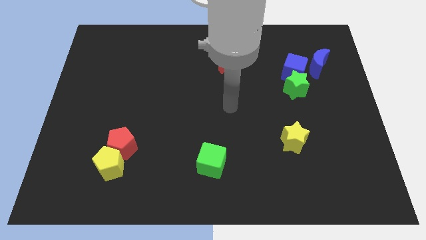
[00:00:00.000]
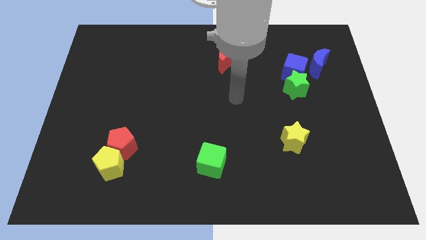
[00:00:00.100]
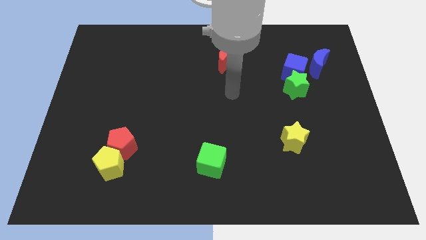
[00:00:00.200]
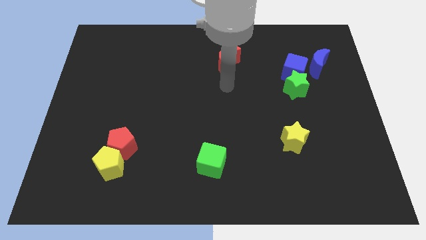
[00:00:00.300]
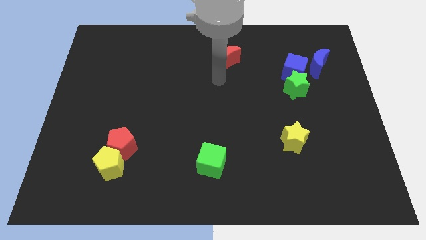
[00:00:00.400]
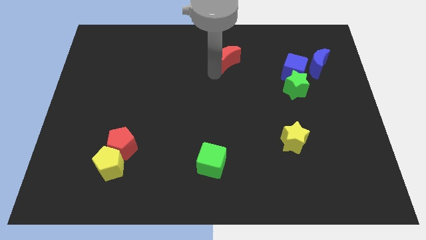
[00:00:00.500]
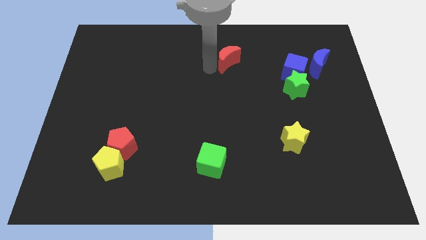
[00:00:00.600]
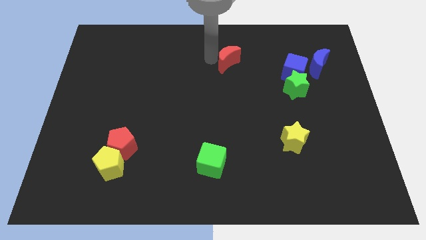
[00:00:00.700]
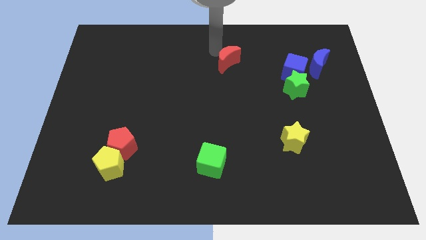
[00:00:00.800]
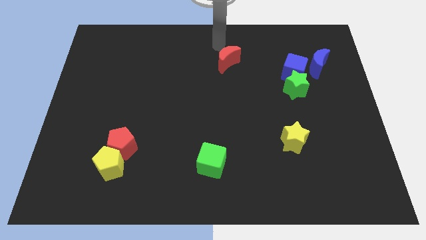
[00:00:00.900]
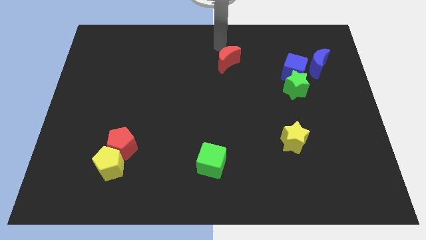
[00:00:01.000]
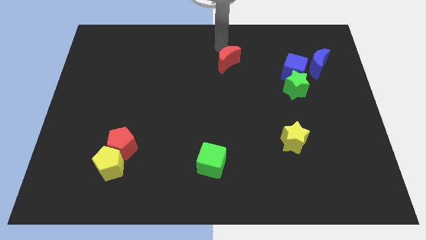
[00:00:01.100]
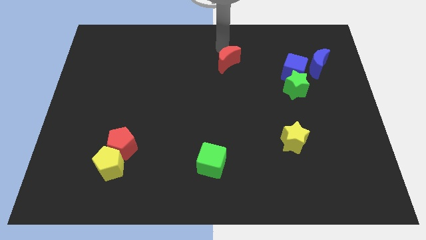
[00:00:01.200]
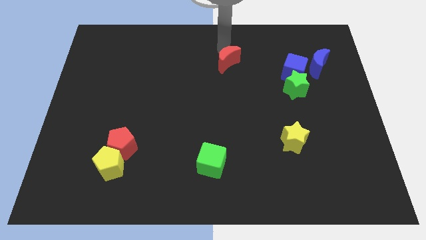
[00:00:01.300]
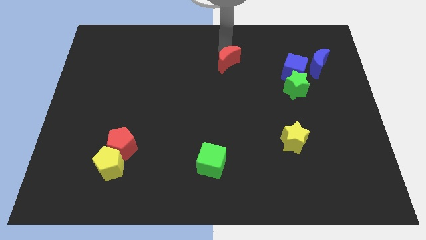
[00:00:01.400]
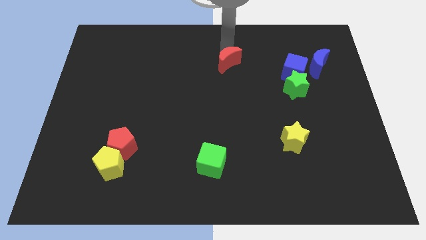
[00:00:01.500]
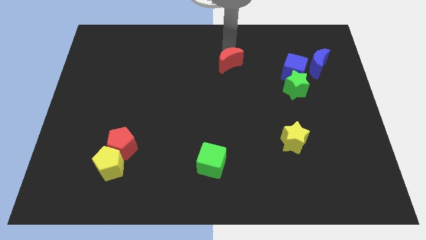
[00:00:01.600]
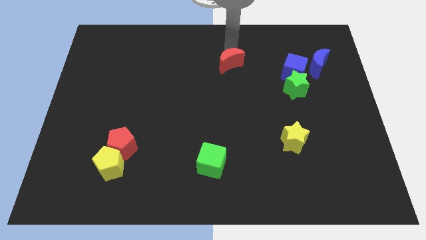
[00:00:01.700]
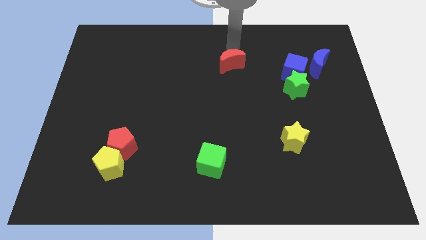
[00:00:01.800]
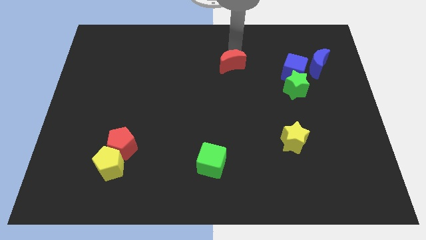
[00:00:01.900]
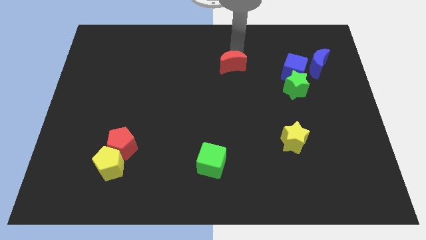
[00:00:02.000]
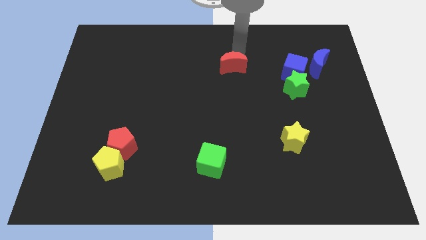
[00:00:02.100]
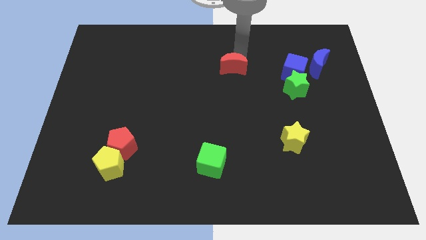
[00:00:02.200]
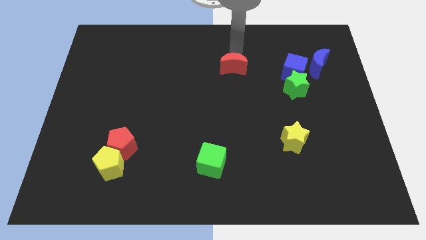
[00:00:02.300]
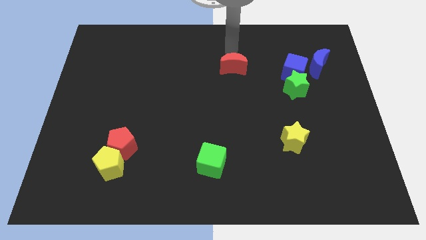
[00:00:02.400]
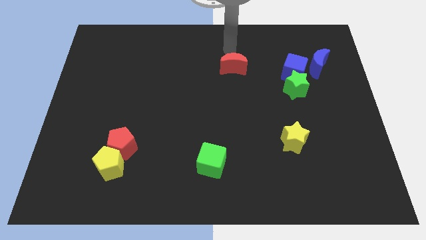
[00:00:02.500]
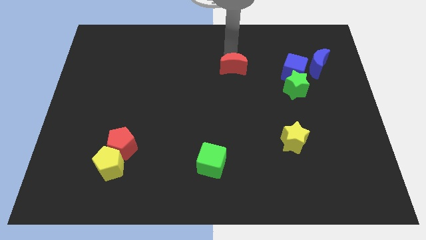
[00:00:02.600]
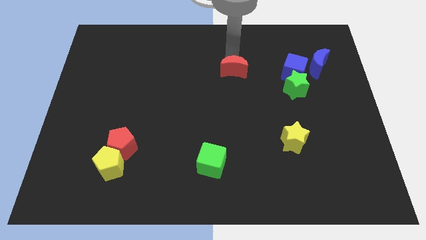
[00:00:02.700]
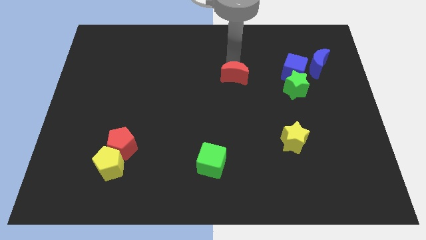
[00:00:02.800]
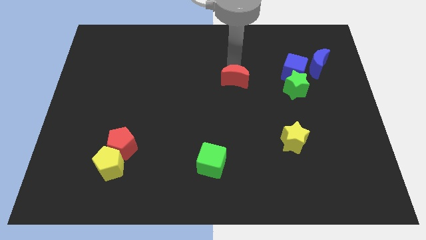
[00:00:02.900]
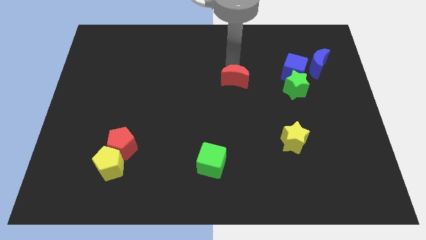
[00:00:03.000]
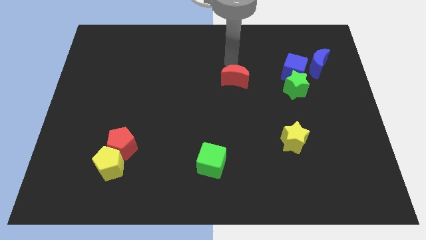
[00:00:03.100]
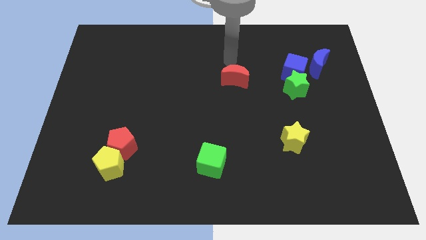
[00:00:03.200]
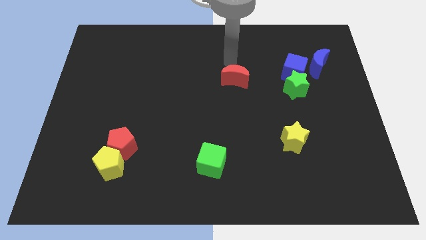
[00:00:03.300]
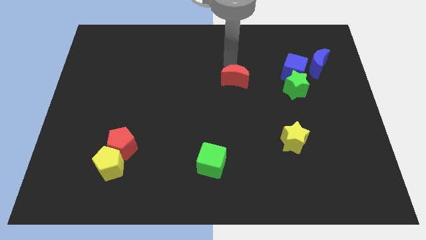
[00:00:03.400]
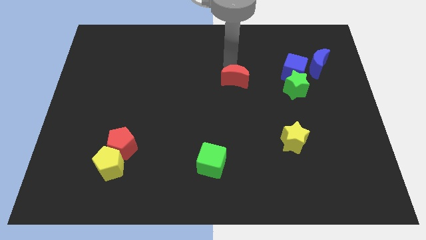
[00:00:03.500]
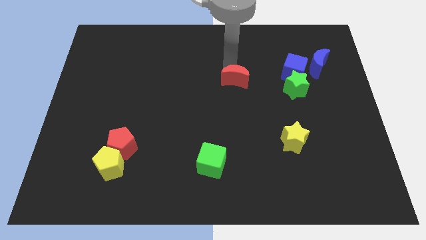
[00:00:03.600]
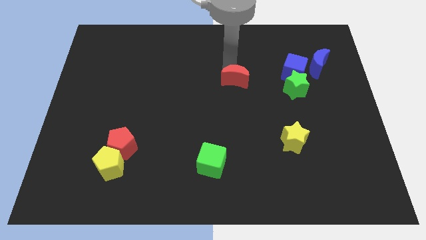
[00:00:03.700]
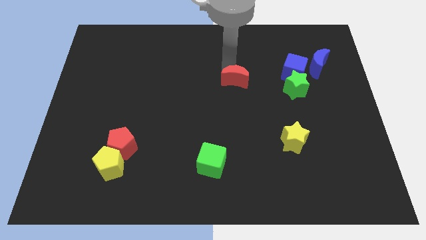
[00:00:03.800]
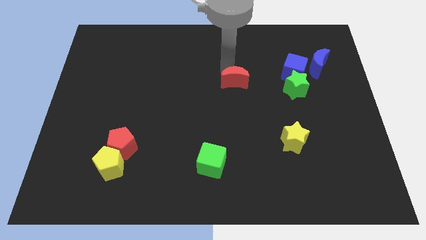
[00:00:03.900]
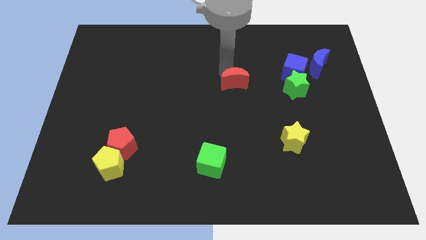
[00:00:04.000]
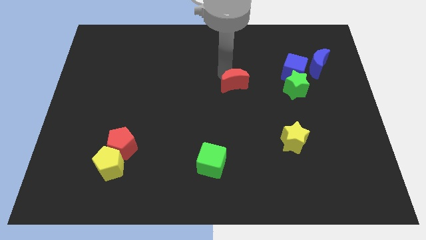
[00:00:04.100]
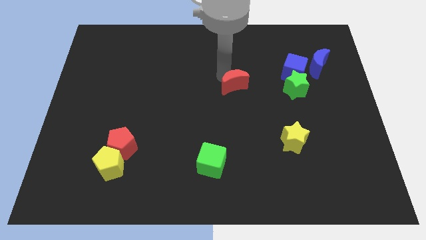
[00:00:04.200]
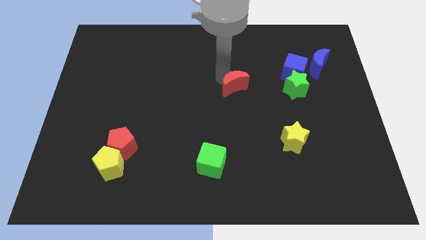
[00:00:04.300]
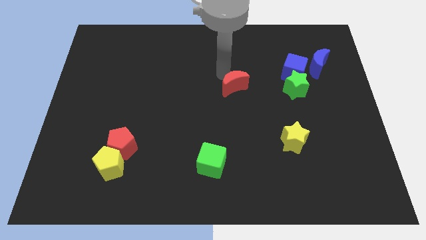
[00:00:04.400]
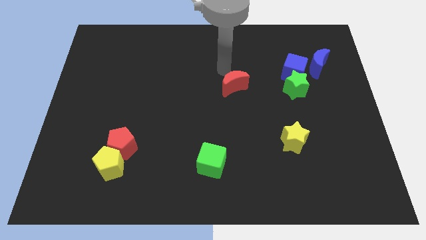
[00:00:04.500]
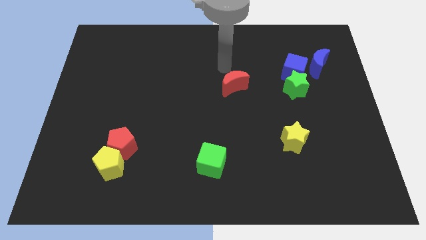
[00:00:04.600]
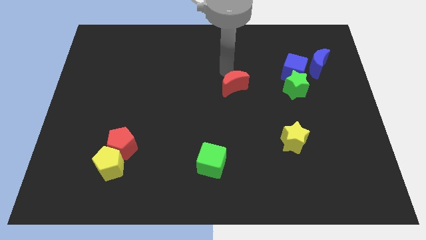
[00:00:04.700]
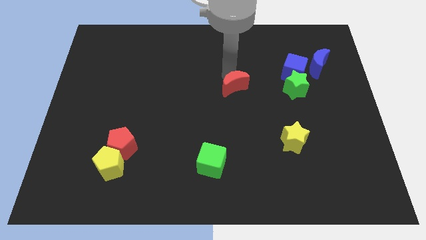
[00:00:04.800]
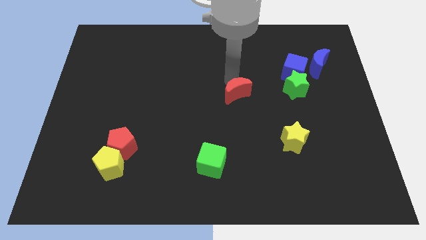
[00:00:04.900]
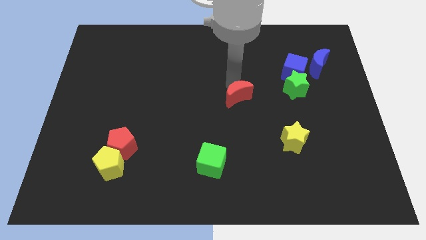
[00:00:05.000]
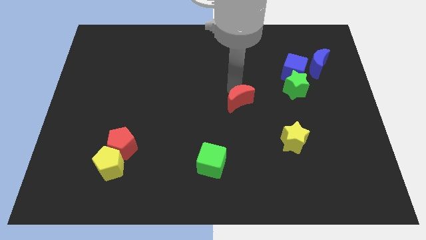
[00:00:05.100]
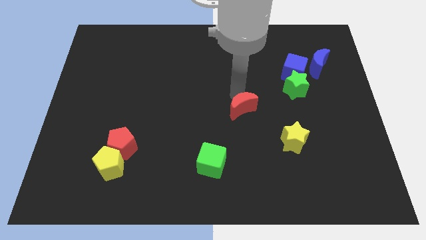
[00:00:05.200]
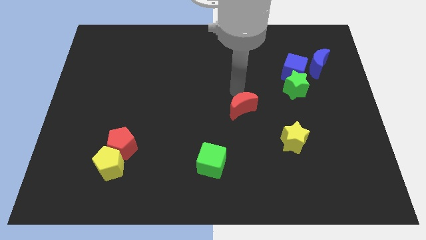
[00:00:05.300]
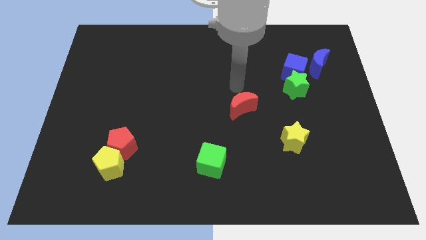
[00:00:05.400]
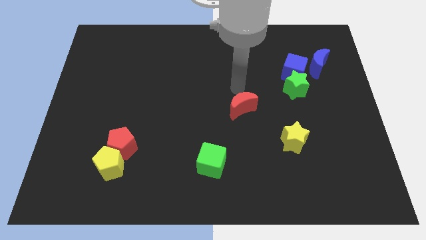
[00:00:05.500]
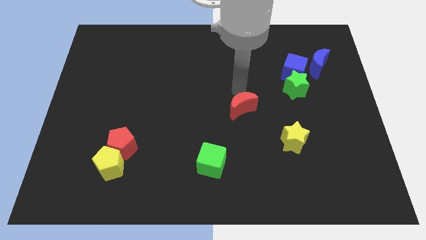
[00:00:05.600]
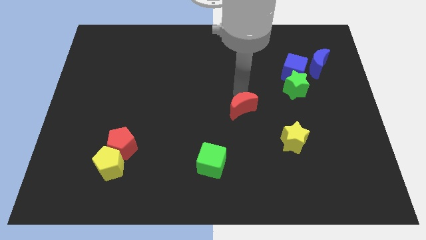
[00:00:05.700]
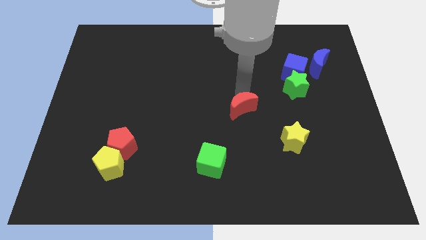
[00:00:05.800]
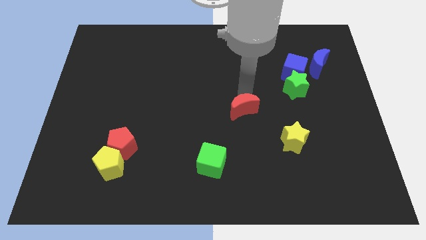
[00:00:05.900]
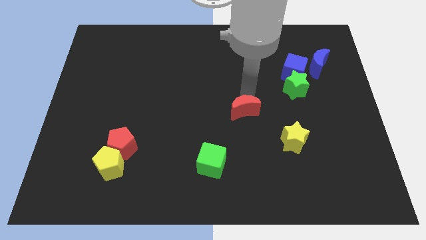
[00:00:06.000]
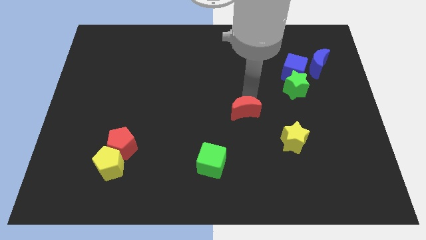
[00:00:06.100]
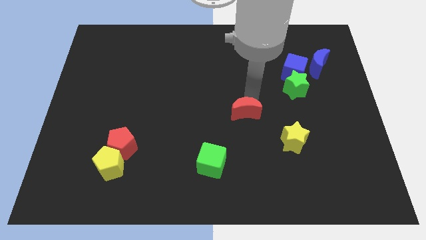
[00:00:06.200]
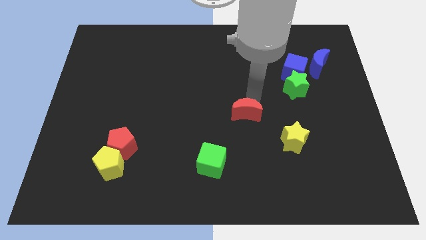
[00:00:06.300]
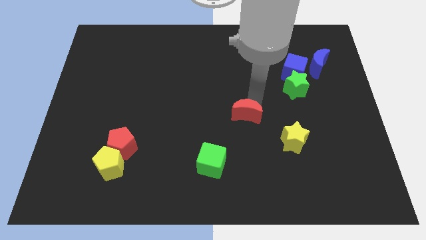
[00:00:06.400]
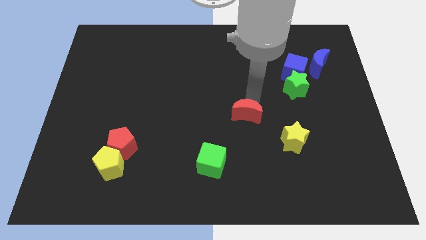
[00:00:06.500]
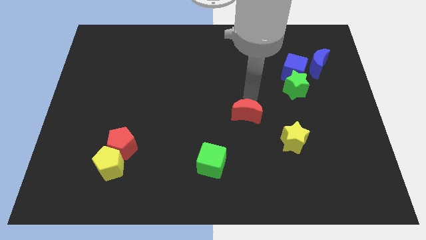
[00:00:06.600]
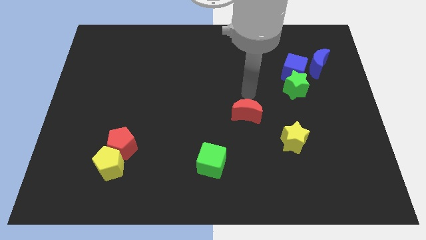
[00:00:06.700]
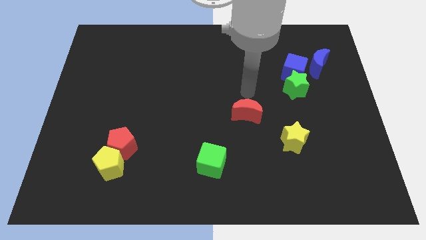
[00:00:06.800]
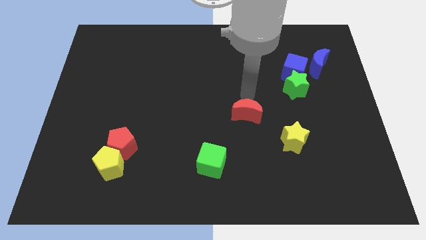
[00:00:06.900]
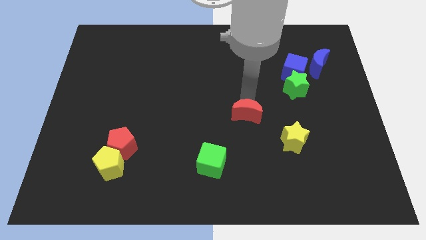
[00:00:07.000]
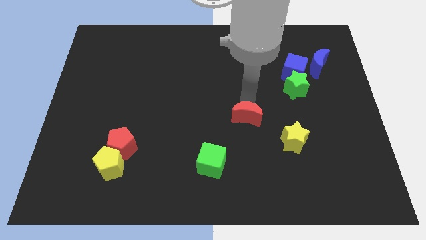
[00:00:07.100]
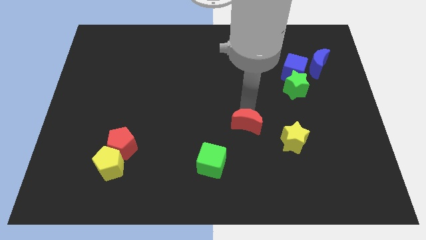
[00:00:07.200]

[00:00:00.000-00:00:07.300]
push the red moon just left of the yellow star

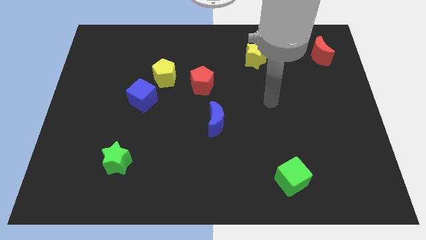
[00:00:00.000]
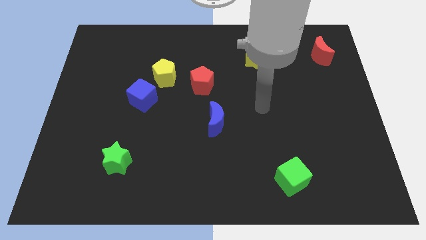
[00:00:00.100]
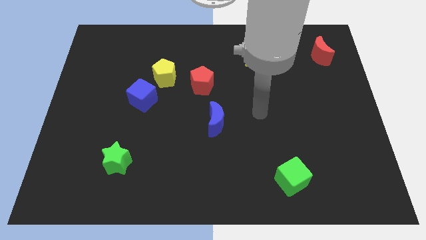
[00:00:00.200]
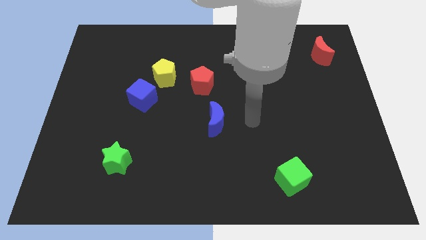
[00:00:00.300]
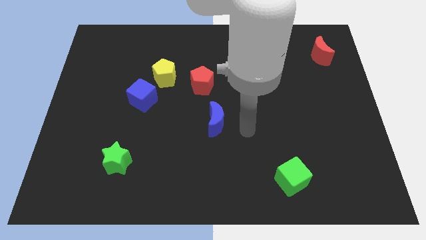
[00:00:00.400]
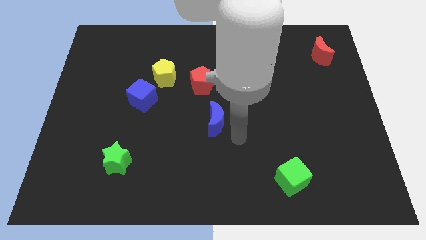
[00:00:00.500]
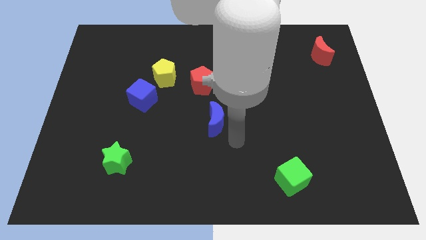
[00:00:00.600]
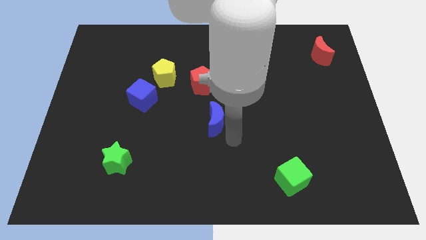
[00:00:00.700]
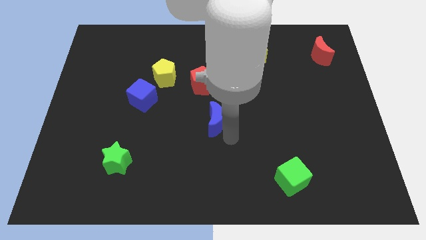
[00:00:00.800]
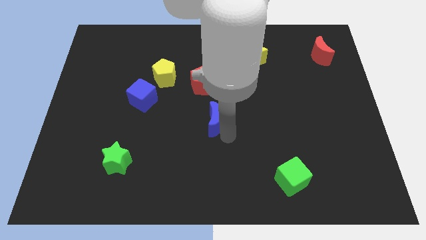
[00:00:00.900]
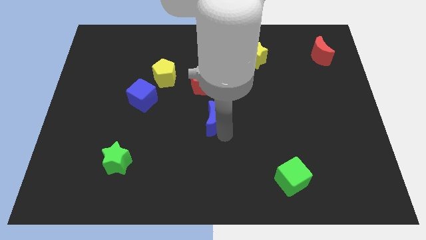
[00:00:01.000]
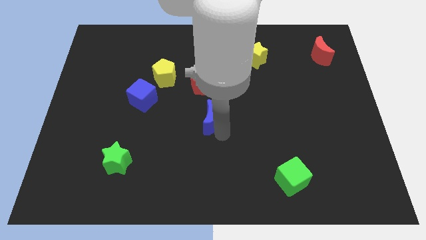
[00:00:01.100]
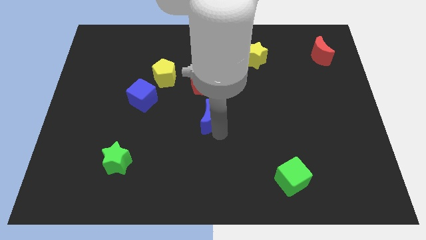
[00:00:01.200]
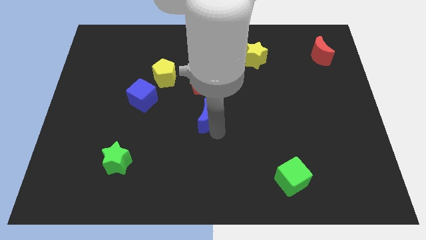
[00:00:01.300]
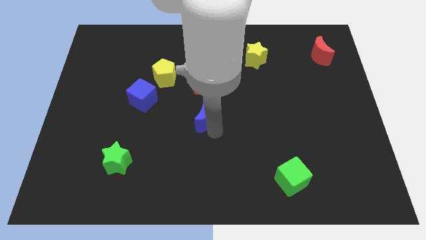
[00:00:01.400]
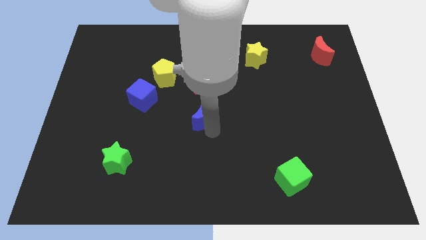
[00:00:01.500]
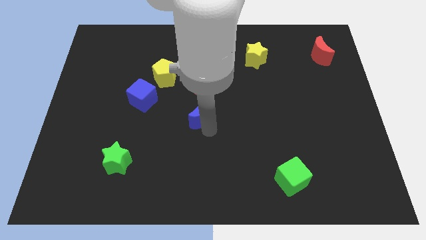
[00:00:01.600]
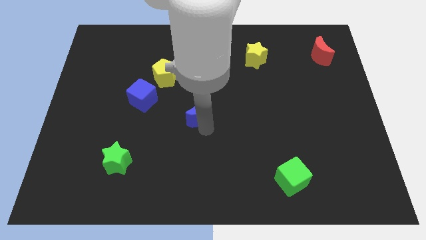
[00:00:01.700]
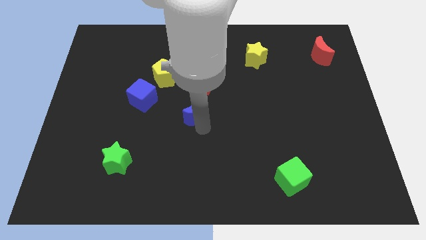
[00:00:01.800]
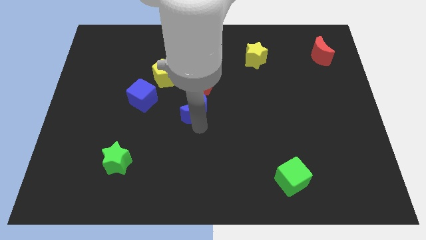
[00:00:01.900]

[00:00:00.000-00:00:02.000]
put the blue moon just right of the blue cube
